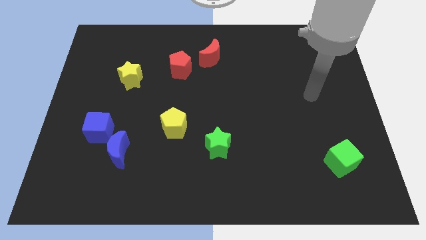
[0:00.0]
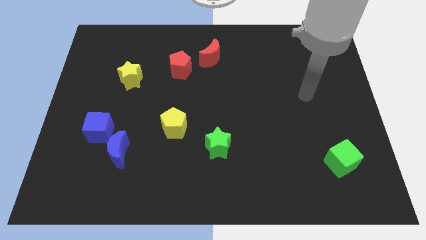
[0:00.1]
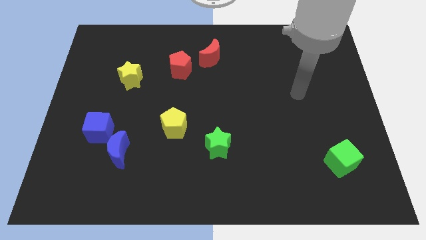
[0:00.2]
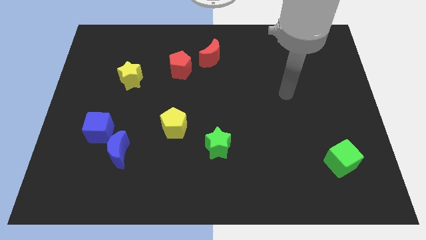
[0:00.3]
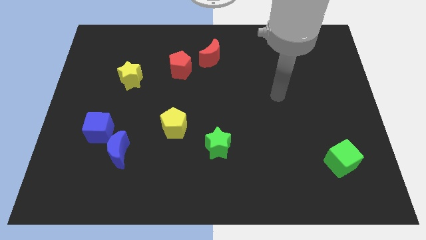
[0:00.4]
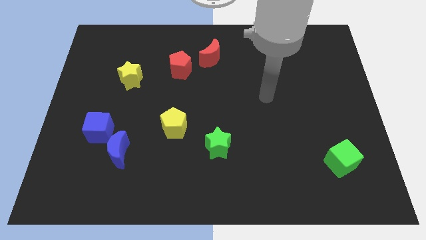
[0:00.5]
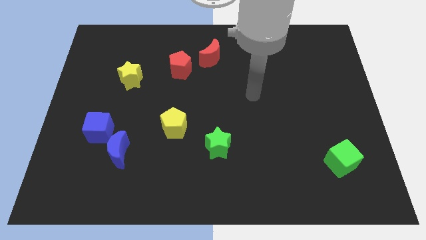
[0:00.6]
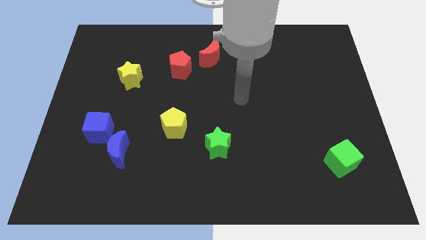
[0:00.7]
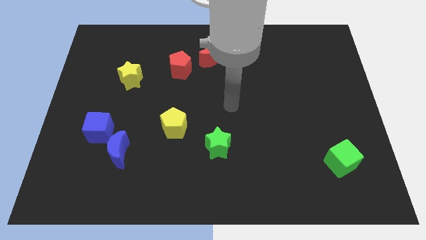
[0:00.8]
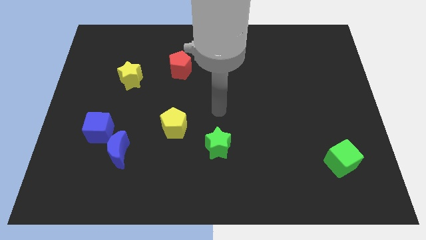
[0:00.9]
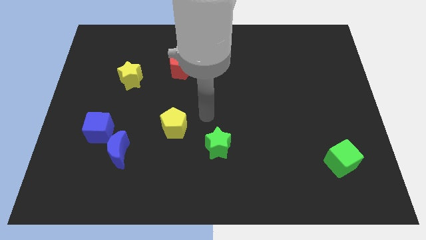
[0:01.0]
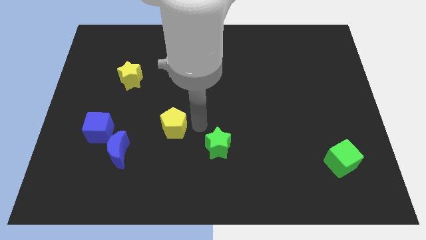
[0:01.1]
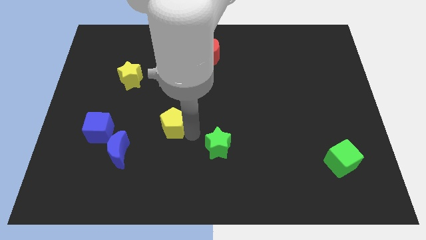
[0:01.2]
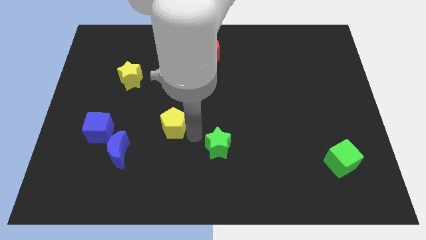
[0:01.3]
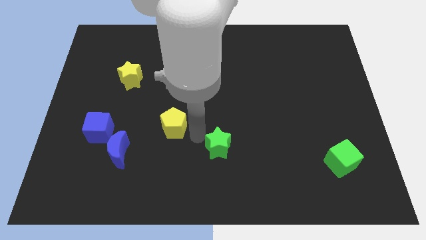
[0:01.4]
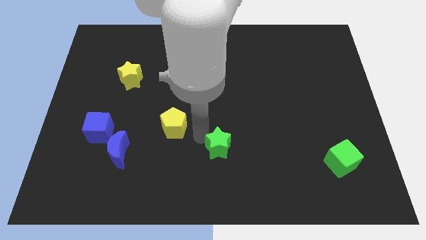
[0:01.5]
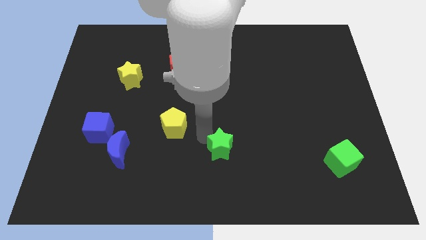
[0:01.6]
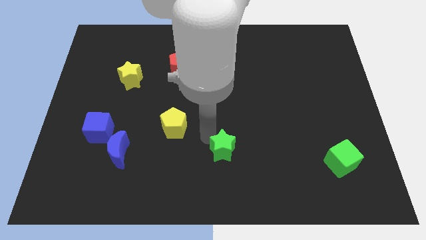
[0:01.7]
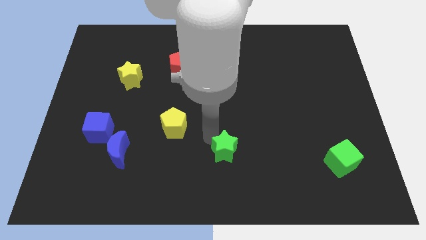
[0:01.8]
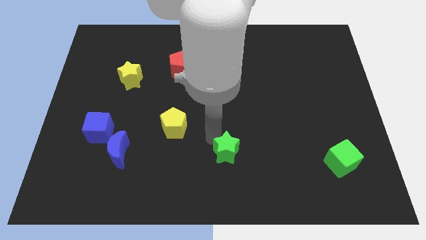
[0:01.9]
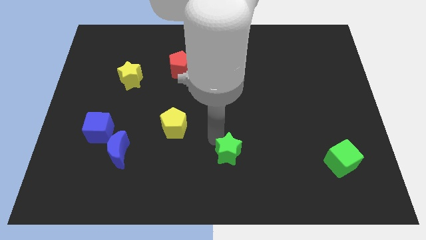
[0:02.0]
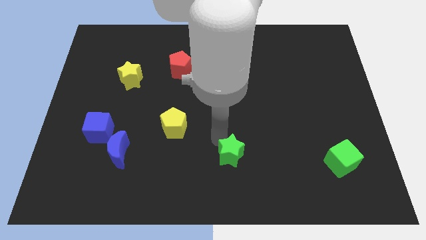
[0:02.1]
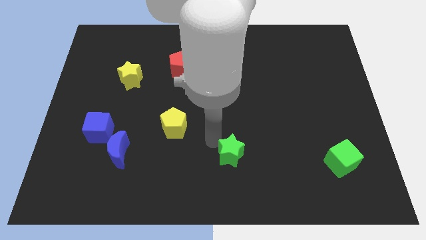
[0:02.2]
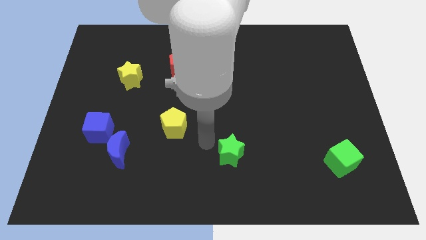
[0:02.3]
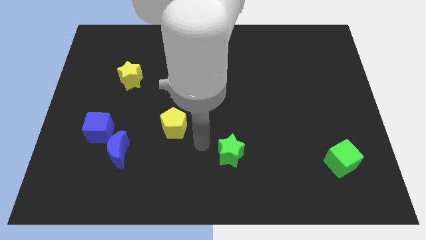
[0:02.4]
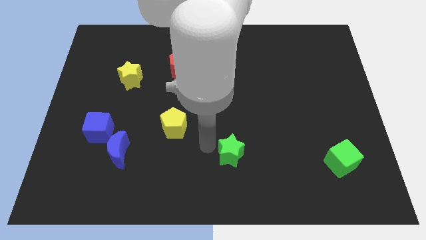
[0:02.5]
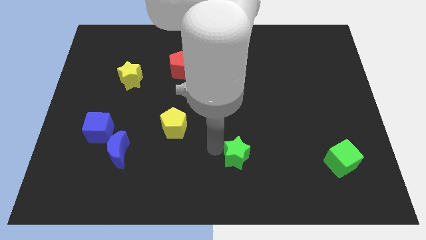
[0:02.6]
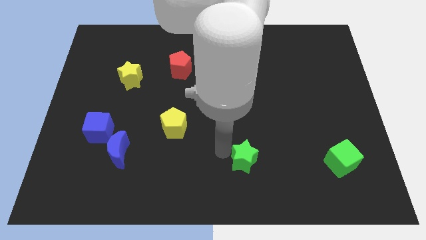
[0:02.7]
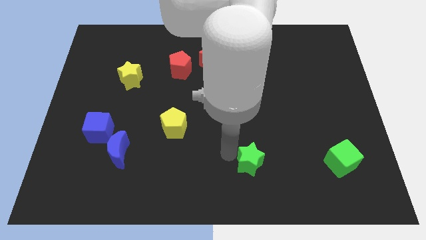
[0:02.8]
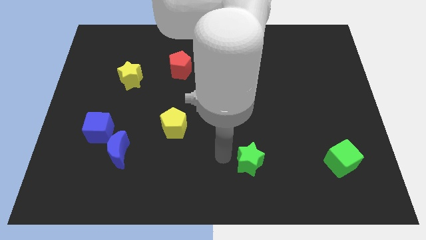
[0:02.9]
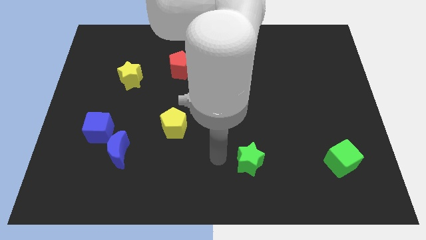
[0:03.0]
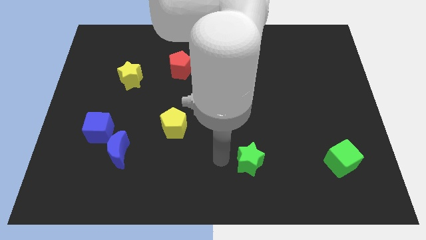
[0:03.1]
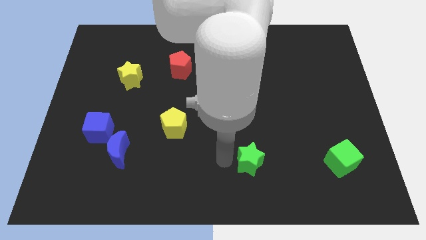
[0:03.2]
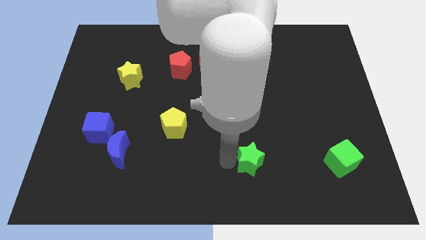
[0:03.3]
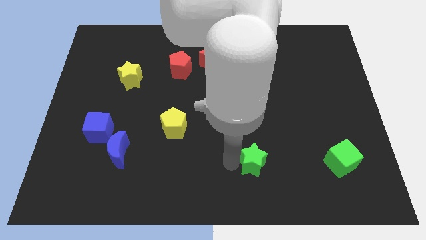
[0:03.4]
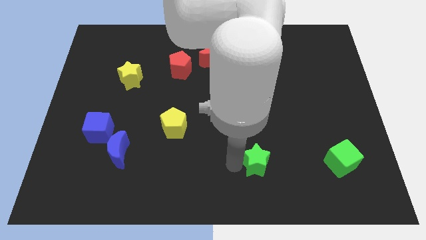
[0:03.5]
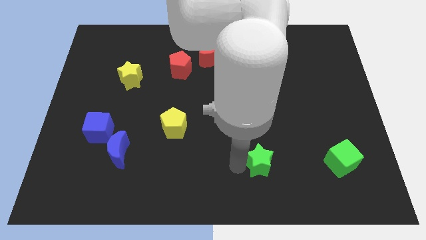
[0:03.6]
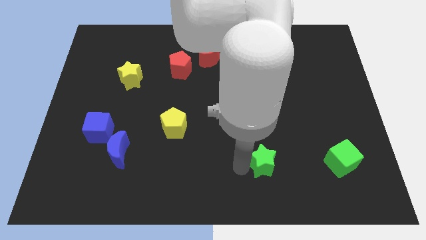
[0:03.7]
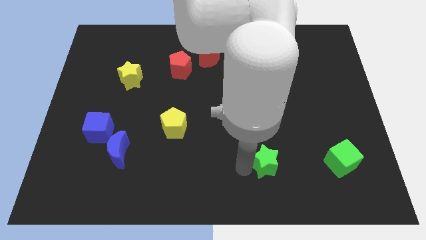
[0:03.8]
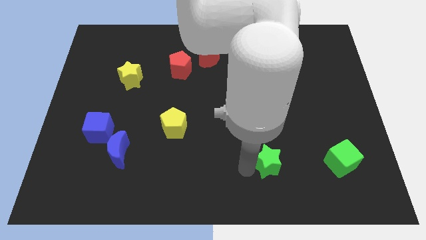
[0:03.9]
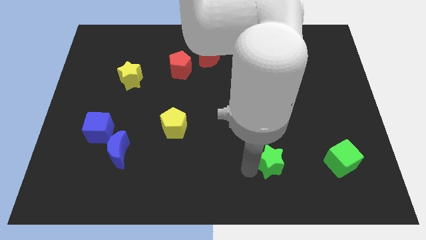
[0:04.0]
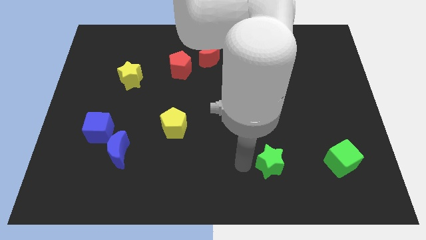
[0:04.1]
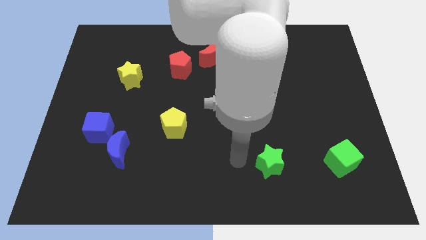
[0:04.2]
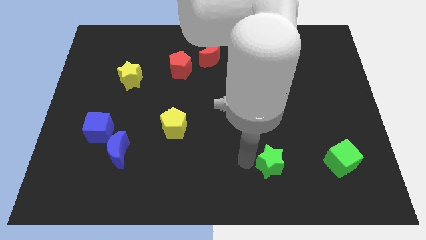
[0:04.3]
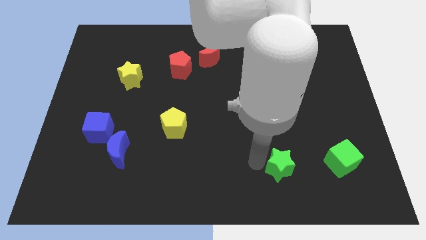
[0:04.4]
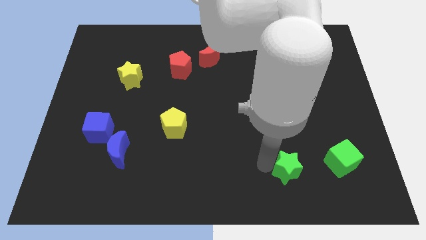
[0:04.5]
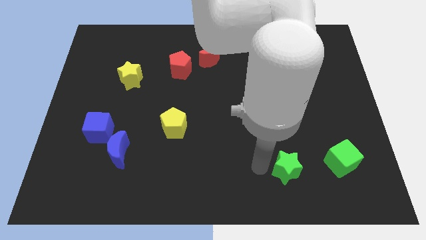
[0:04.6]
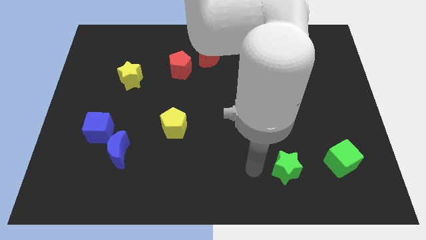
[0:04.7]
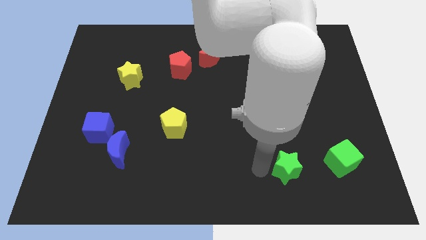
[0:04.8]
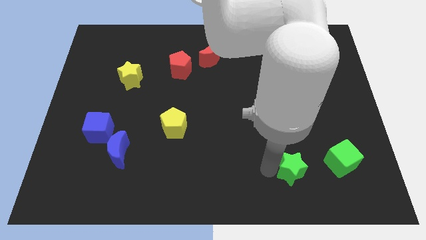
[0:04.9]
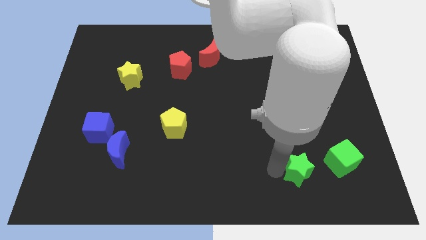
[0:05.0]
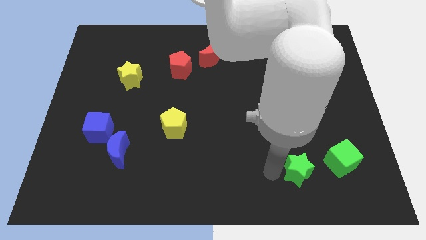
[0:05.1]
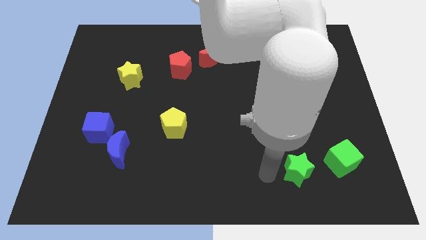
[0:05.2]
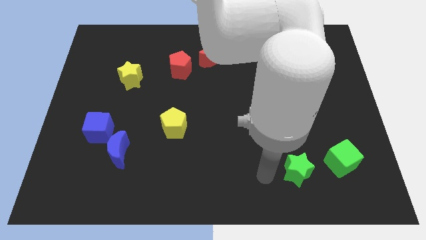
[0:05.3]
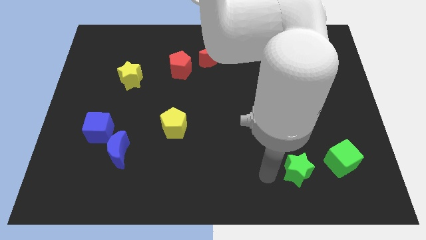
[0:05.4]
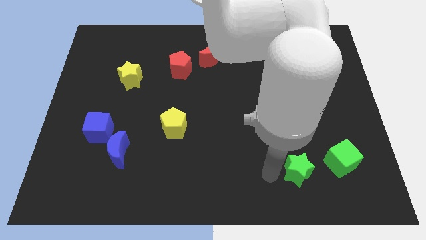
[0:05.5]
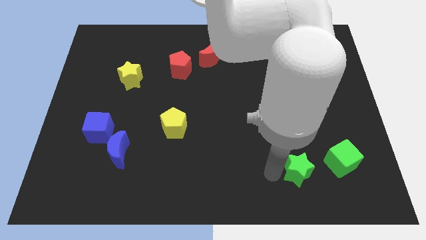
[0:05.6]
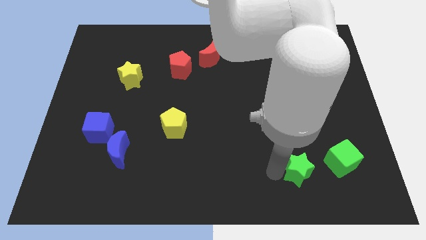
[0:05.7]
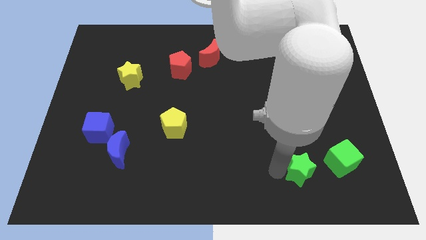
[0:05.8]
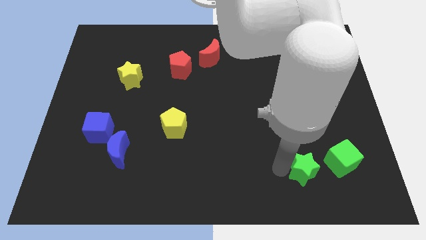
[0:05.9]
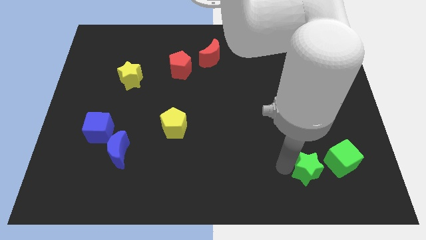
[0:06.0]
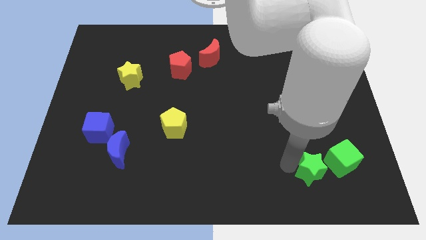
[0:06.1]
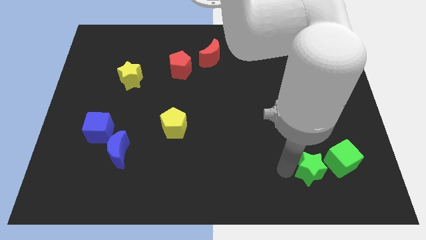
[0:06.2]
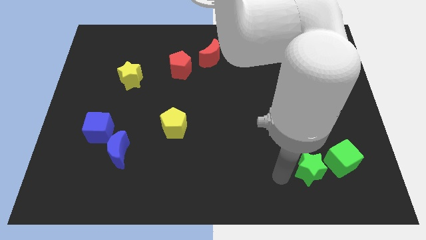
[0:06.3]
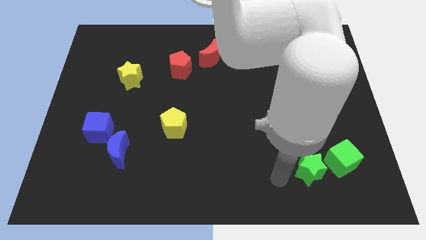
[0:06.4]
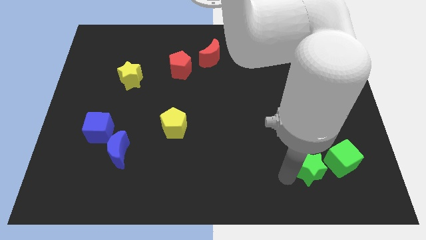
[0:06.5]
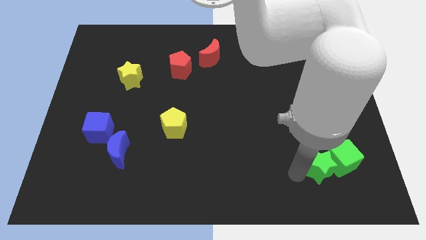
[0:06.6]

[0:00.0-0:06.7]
push the green star towards the green cube
